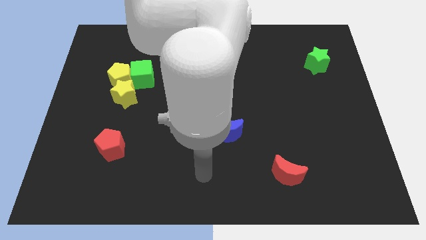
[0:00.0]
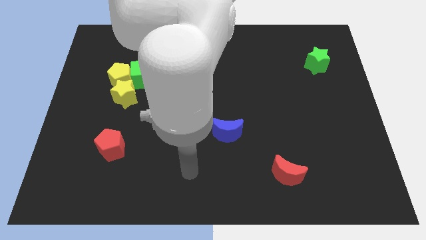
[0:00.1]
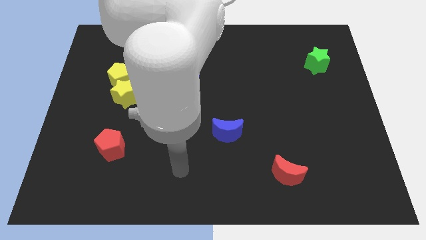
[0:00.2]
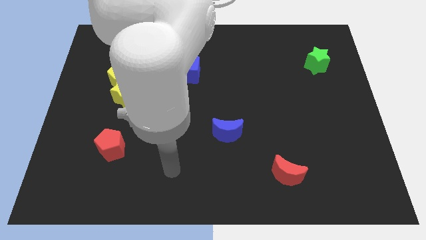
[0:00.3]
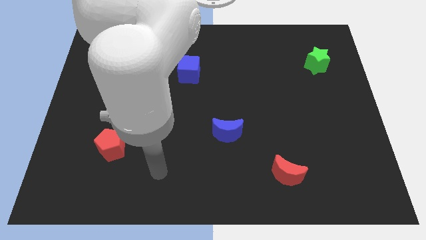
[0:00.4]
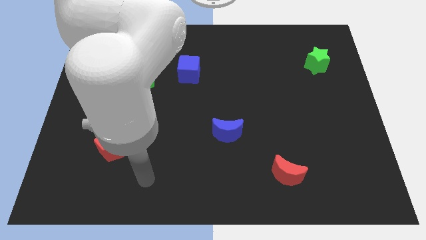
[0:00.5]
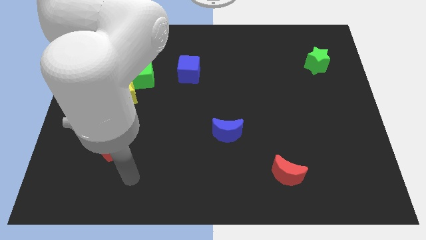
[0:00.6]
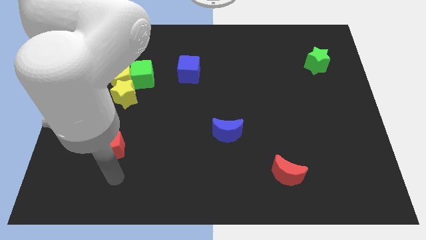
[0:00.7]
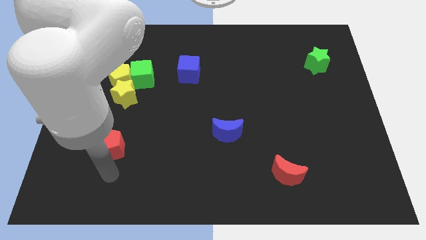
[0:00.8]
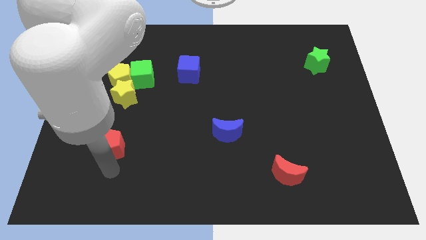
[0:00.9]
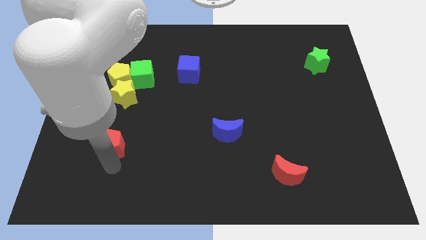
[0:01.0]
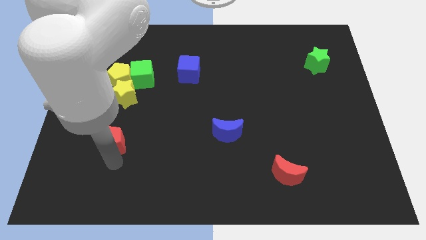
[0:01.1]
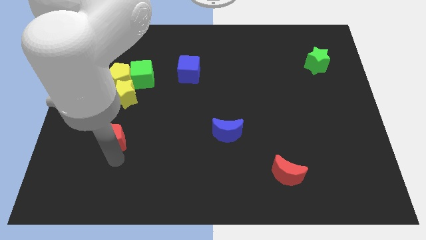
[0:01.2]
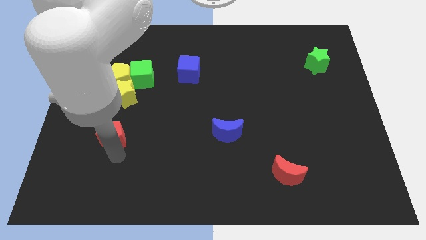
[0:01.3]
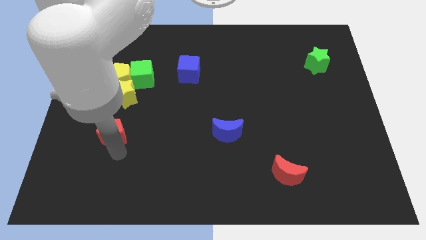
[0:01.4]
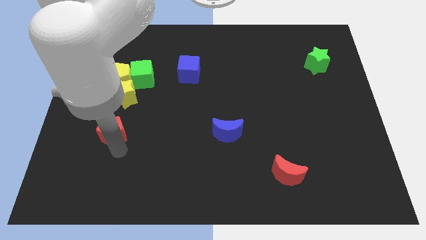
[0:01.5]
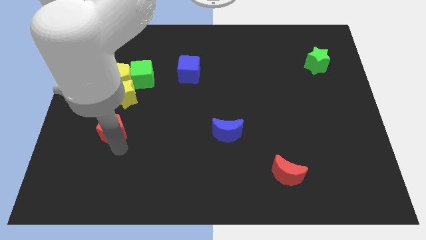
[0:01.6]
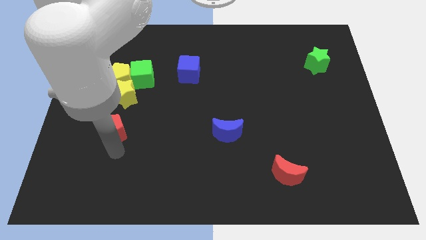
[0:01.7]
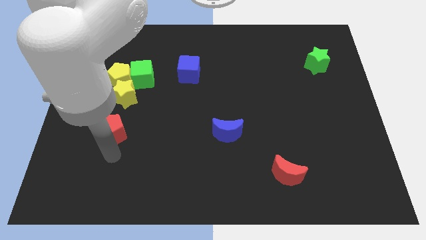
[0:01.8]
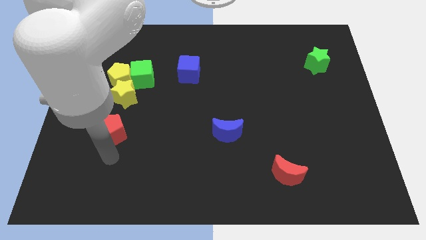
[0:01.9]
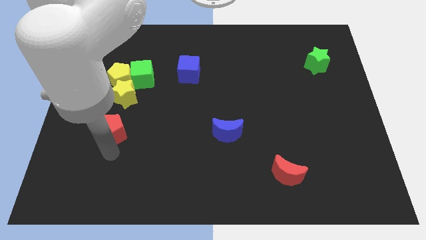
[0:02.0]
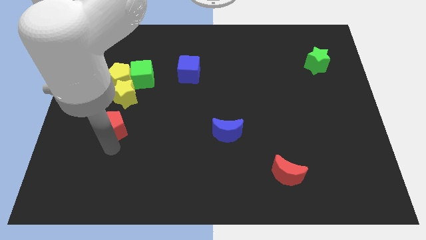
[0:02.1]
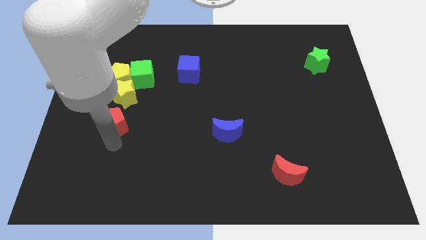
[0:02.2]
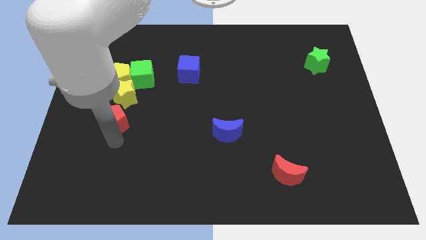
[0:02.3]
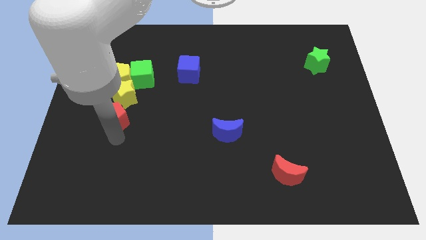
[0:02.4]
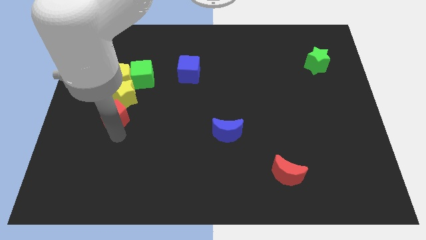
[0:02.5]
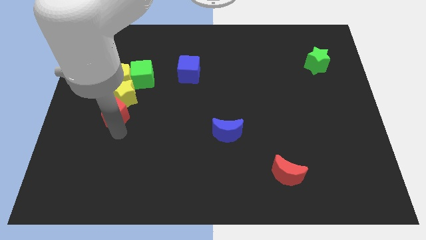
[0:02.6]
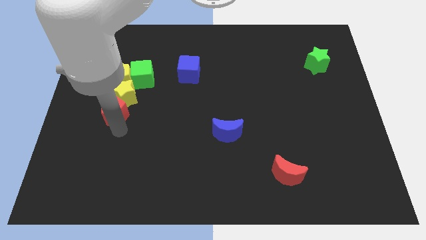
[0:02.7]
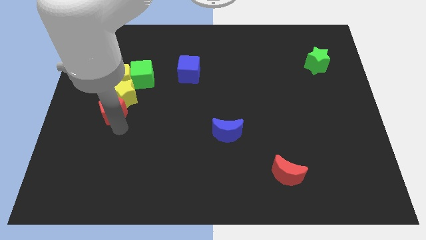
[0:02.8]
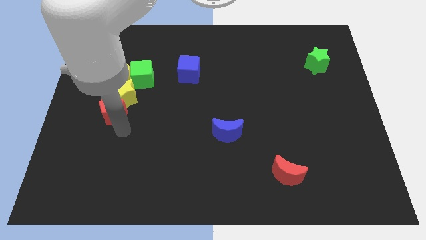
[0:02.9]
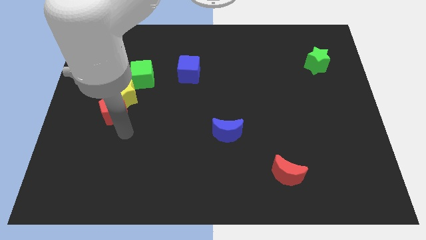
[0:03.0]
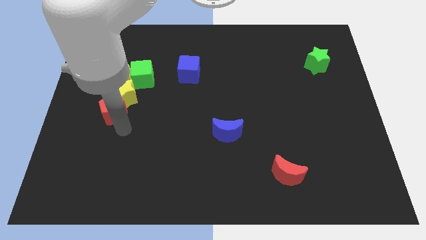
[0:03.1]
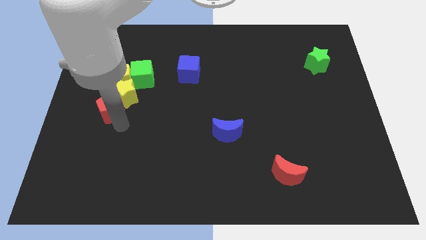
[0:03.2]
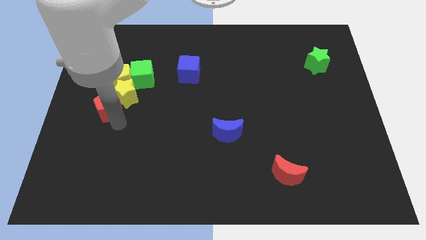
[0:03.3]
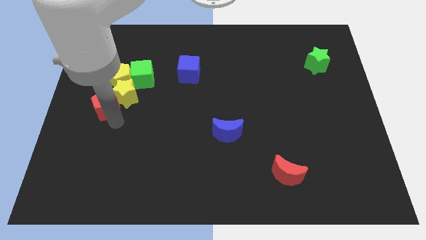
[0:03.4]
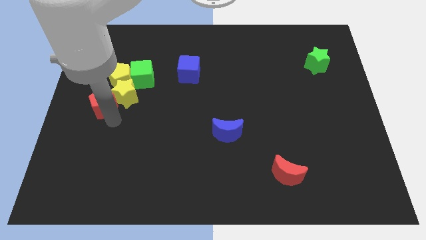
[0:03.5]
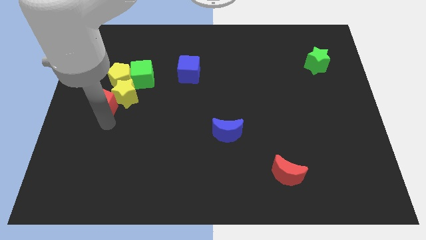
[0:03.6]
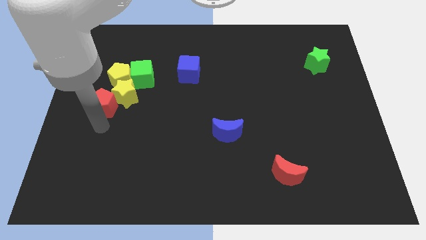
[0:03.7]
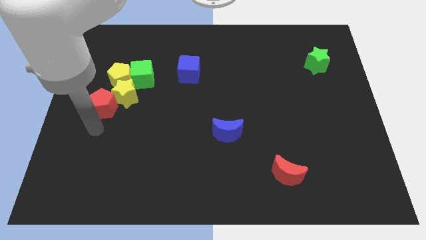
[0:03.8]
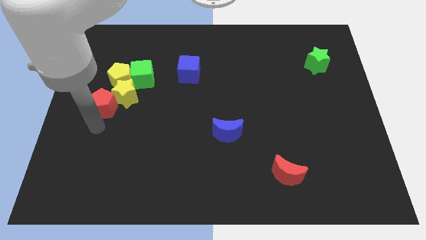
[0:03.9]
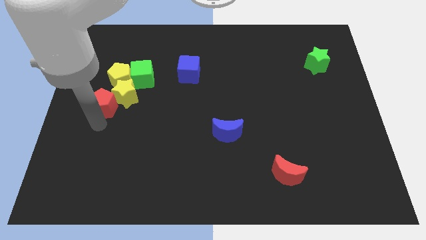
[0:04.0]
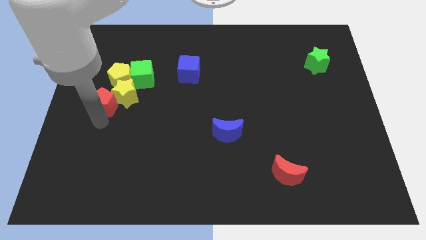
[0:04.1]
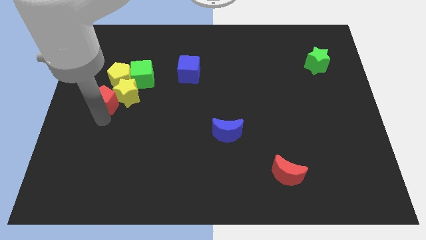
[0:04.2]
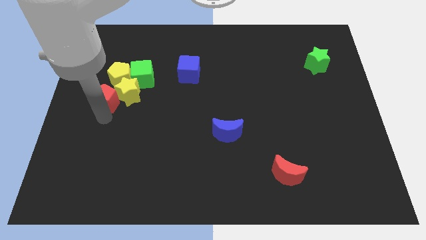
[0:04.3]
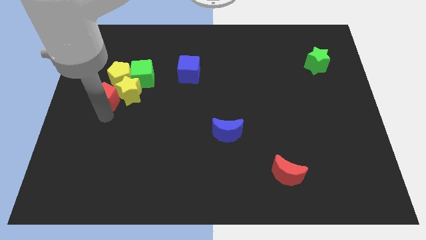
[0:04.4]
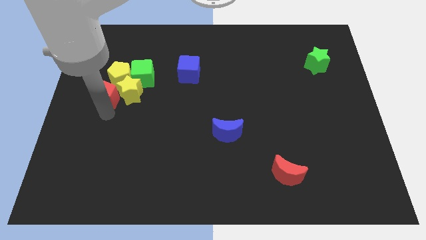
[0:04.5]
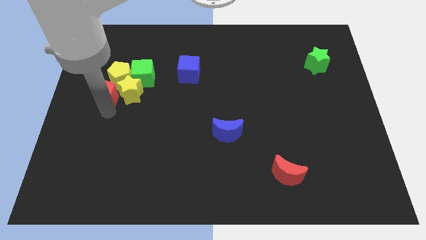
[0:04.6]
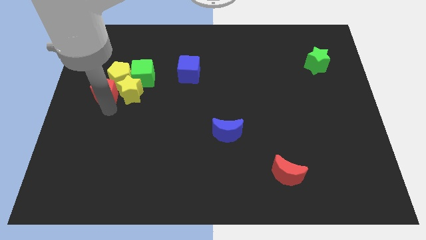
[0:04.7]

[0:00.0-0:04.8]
move the red pentagon towards the yellow pentagon

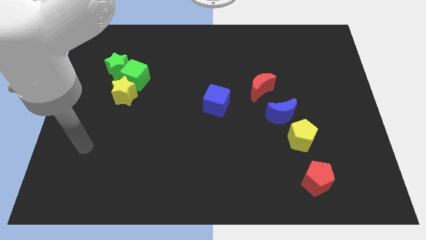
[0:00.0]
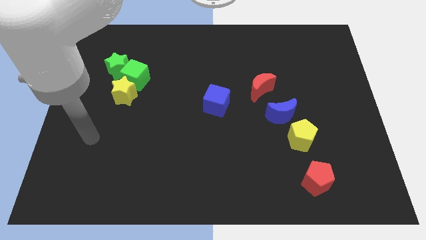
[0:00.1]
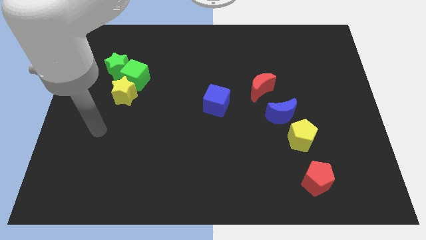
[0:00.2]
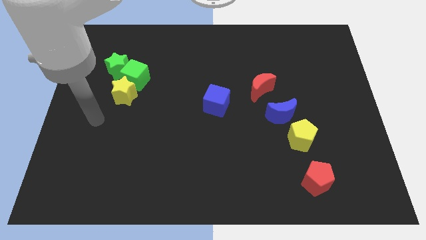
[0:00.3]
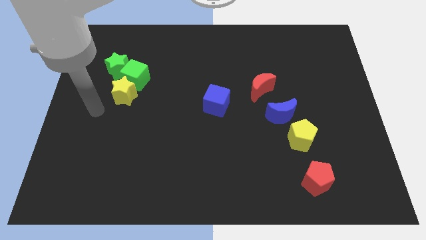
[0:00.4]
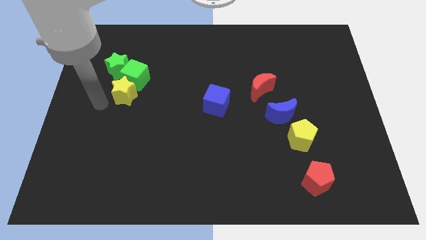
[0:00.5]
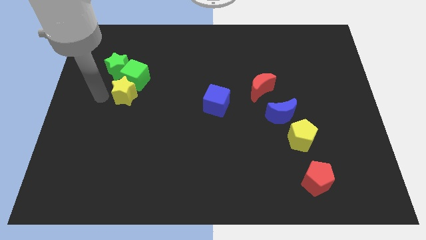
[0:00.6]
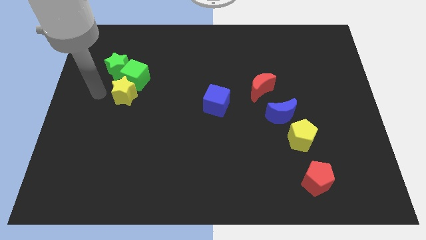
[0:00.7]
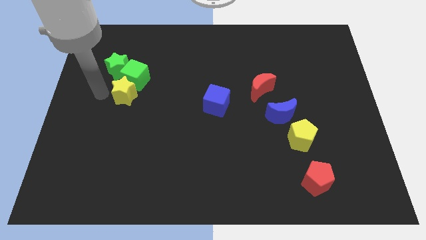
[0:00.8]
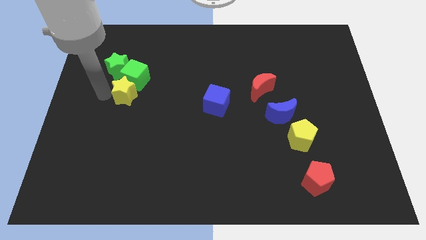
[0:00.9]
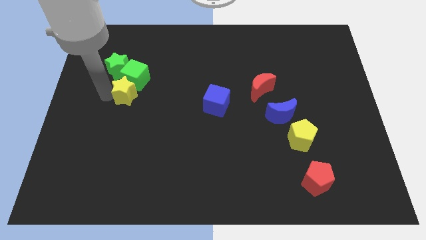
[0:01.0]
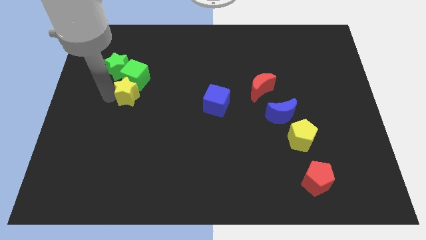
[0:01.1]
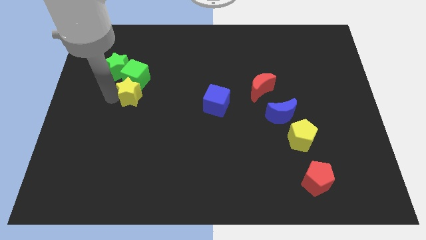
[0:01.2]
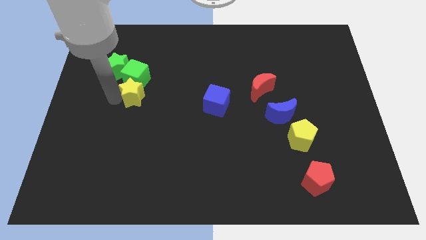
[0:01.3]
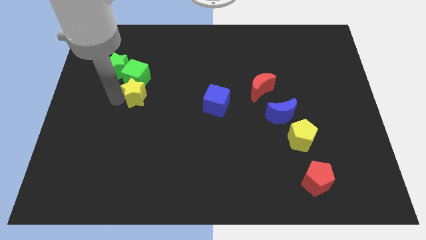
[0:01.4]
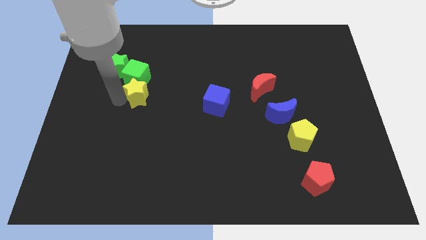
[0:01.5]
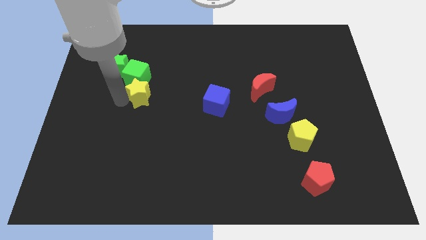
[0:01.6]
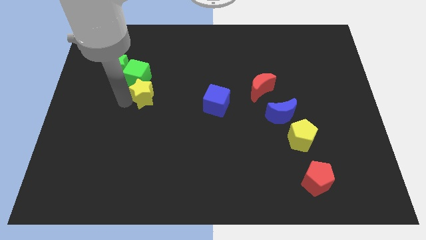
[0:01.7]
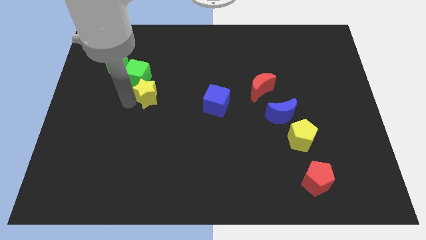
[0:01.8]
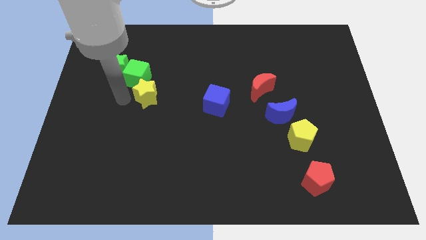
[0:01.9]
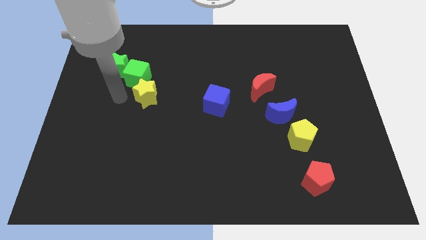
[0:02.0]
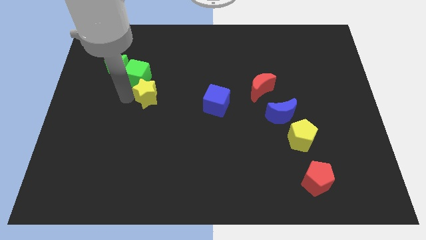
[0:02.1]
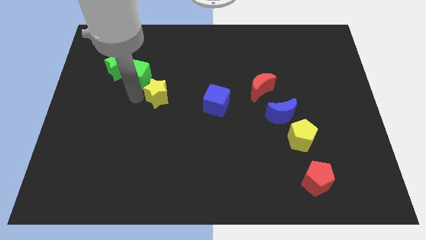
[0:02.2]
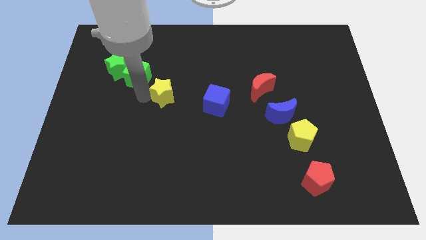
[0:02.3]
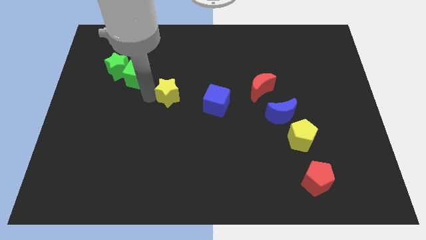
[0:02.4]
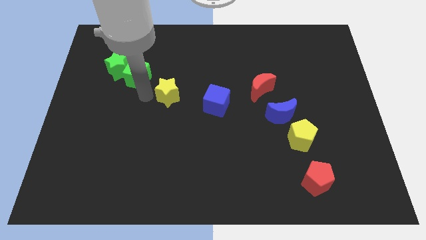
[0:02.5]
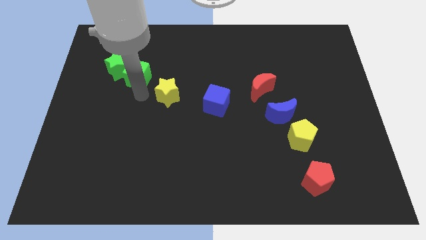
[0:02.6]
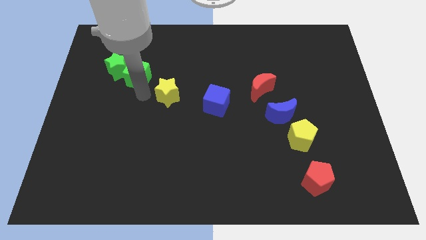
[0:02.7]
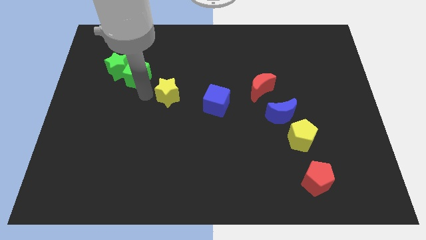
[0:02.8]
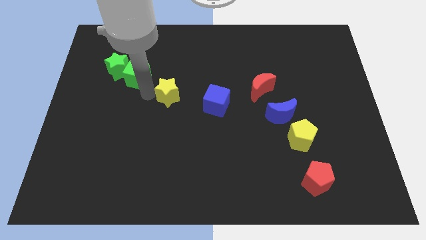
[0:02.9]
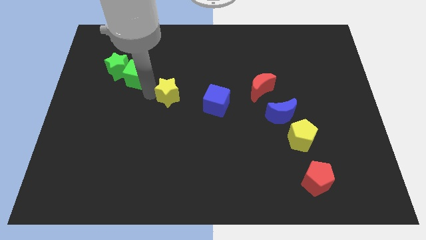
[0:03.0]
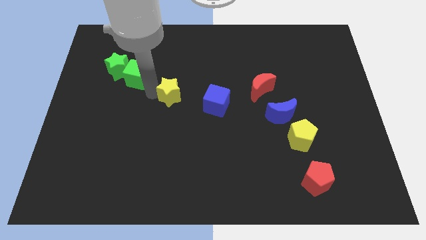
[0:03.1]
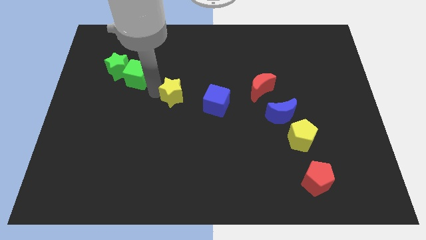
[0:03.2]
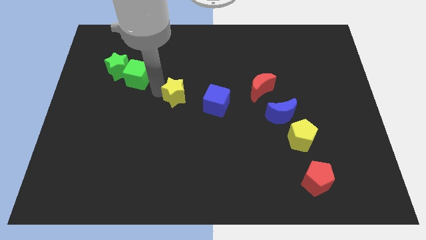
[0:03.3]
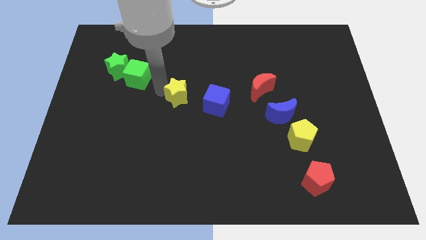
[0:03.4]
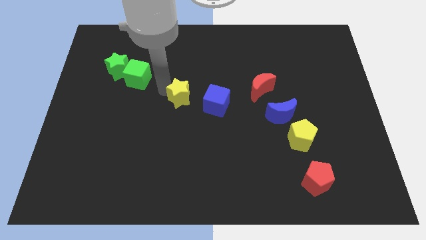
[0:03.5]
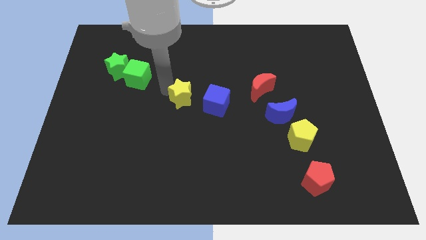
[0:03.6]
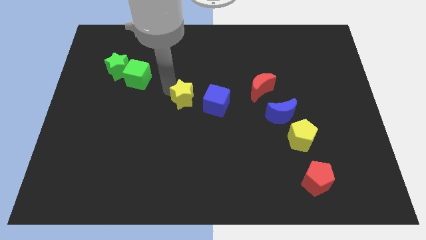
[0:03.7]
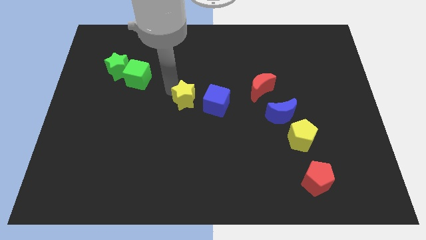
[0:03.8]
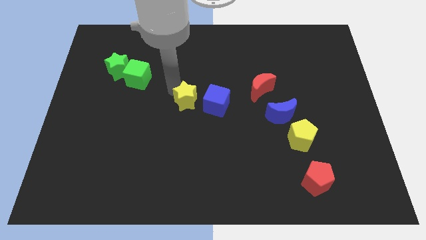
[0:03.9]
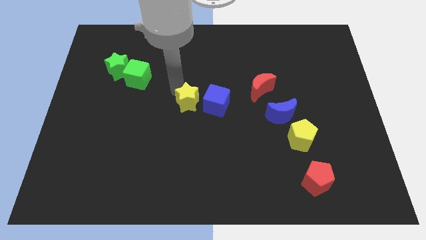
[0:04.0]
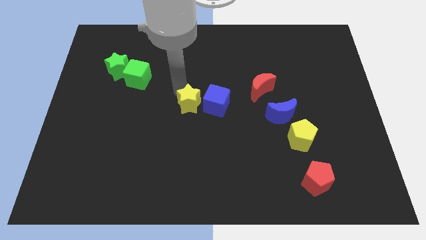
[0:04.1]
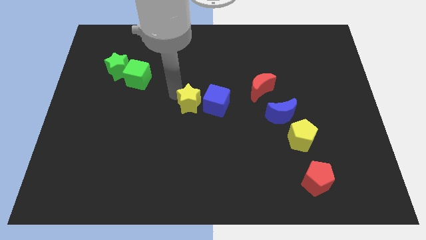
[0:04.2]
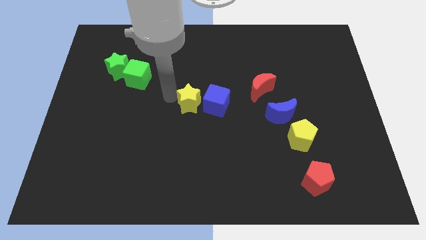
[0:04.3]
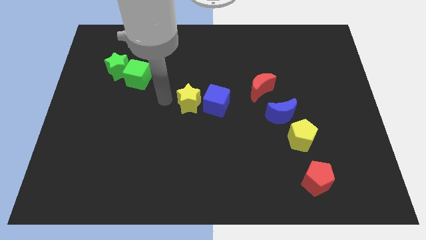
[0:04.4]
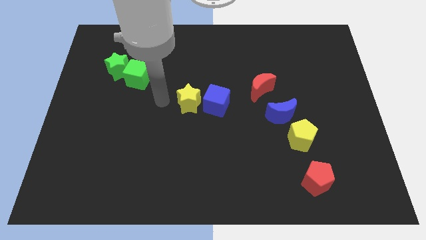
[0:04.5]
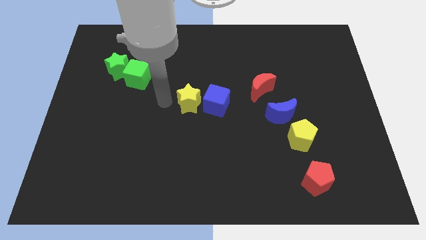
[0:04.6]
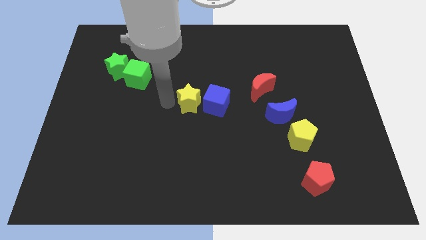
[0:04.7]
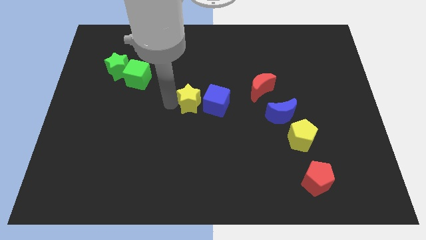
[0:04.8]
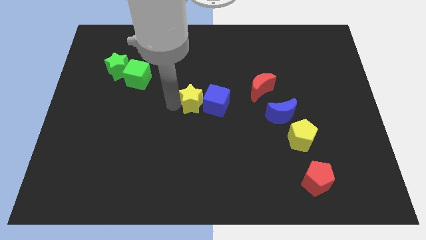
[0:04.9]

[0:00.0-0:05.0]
put the yellow star next to the blue cube
